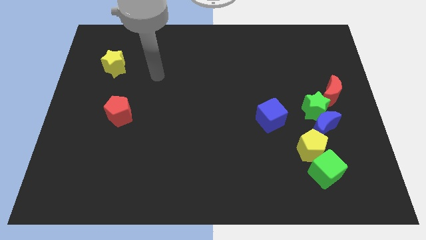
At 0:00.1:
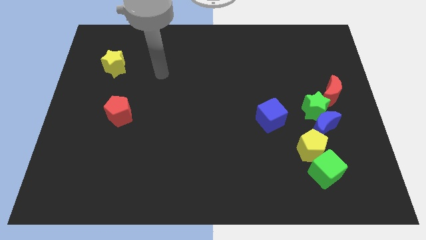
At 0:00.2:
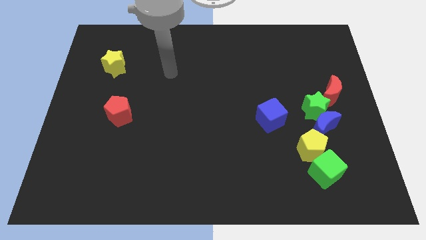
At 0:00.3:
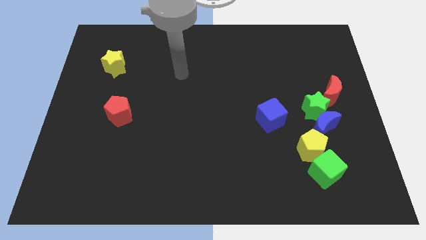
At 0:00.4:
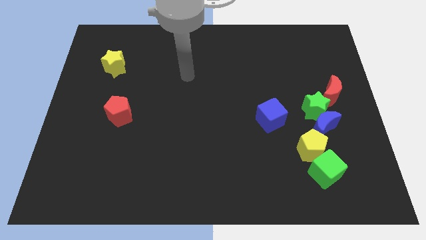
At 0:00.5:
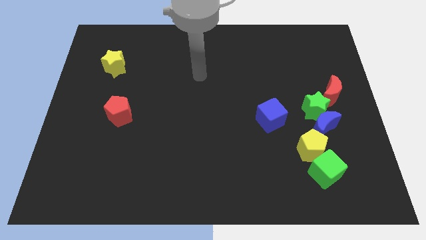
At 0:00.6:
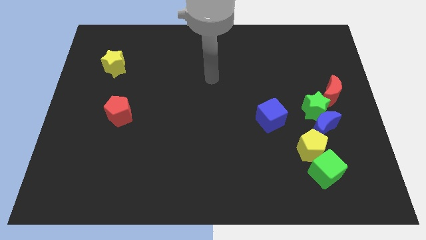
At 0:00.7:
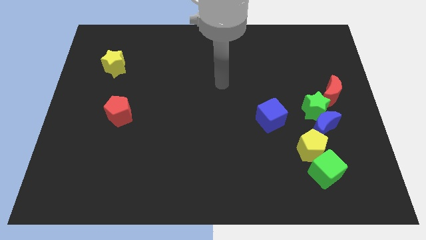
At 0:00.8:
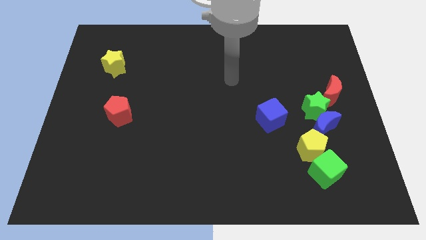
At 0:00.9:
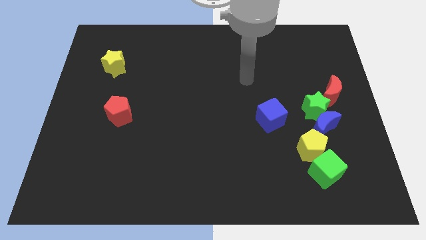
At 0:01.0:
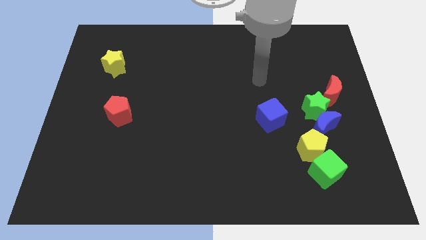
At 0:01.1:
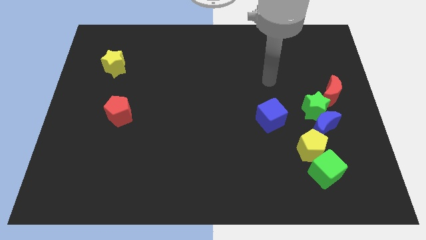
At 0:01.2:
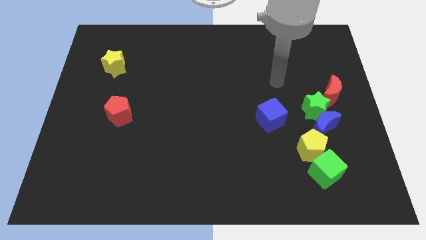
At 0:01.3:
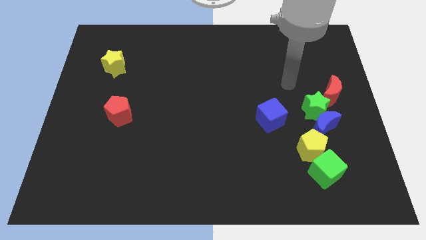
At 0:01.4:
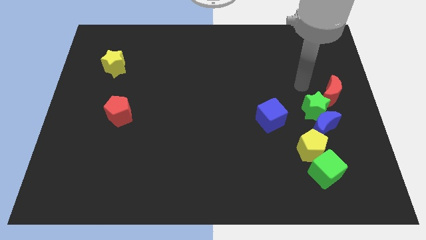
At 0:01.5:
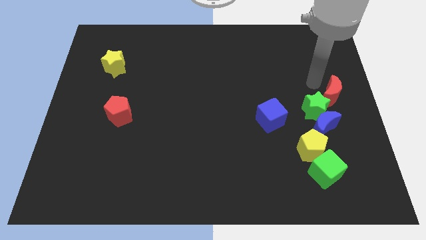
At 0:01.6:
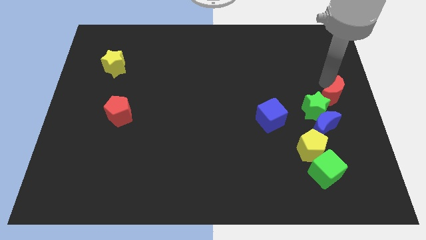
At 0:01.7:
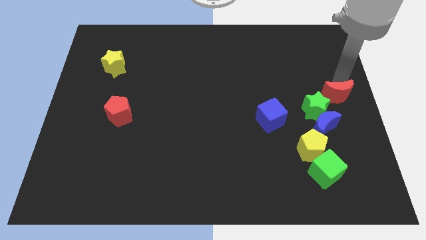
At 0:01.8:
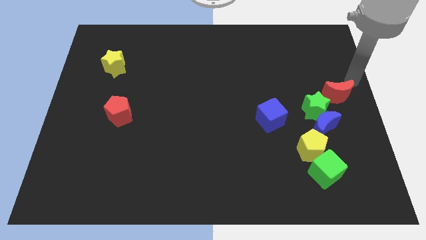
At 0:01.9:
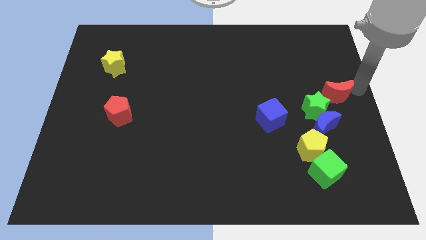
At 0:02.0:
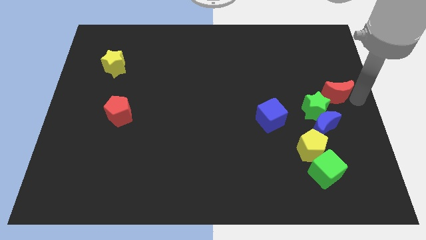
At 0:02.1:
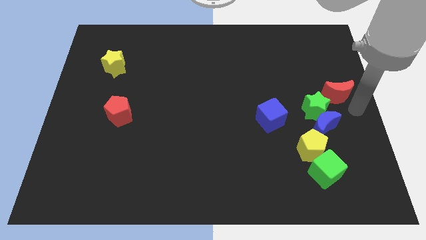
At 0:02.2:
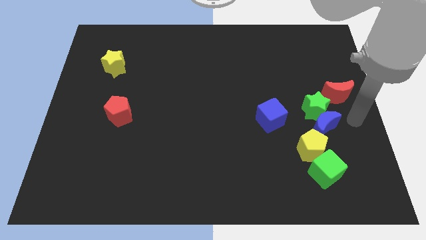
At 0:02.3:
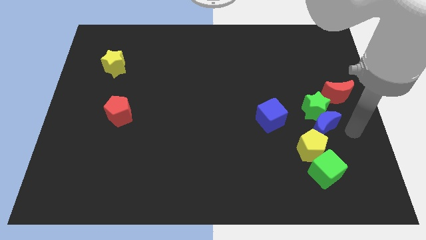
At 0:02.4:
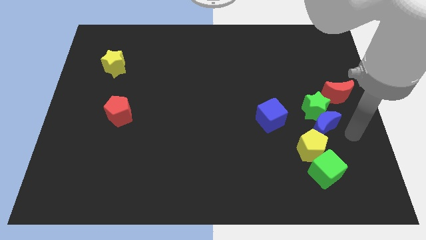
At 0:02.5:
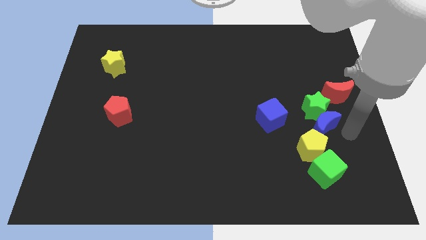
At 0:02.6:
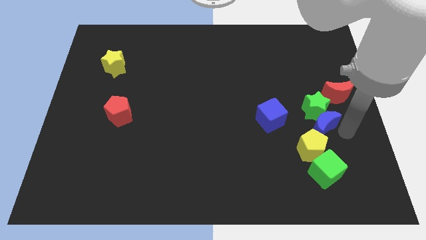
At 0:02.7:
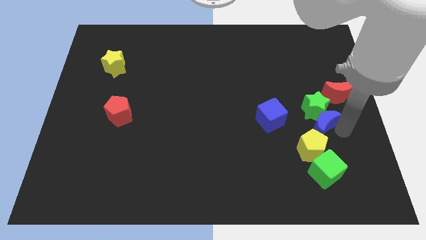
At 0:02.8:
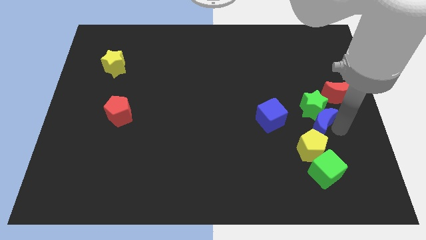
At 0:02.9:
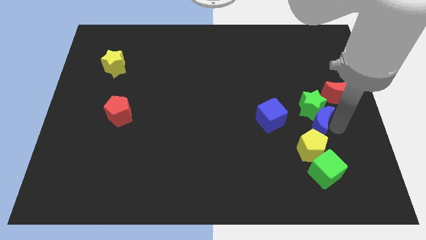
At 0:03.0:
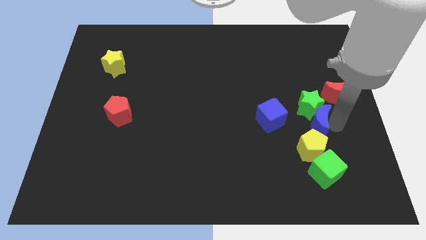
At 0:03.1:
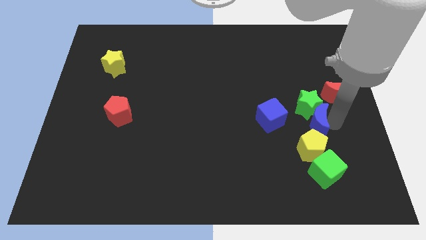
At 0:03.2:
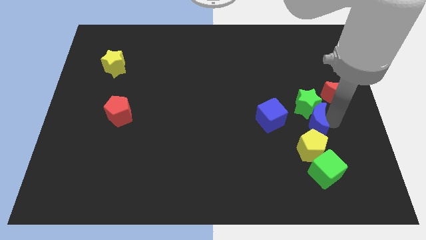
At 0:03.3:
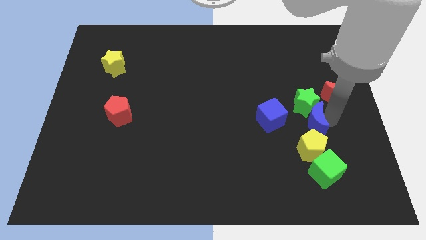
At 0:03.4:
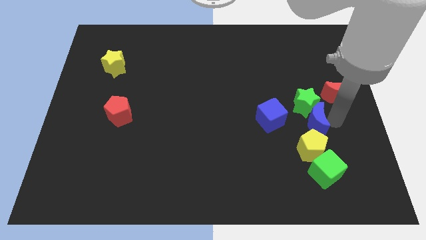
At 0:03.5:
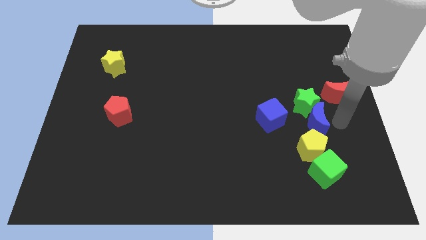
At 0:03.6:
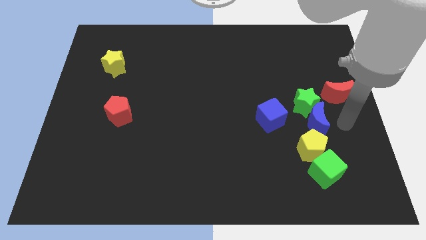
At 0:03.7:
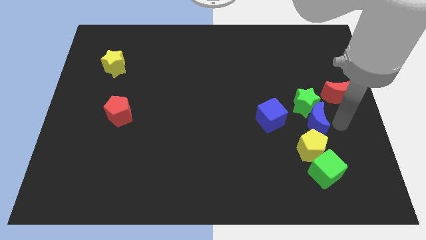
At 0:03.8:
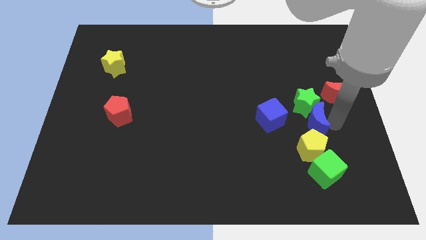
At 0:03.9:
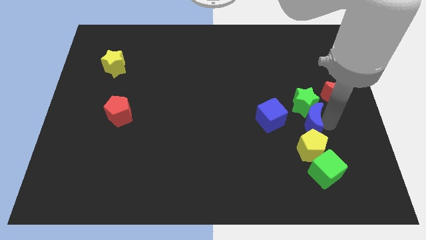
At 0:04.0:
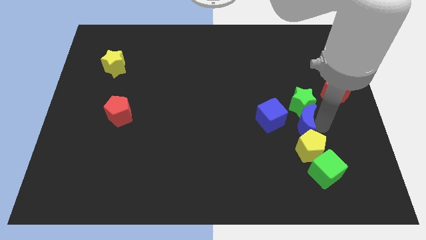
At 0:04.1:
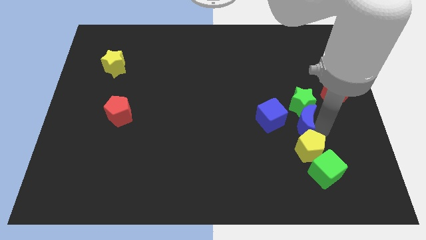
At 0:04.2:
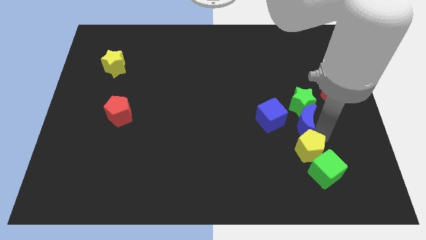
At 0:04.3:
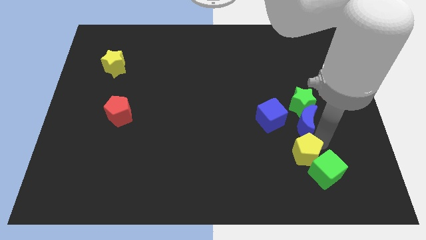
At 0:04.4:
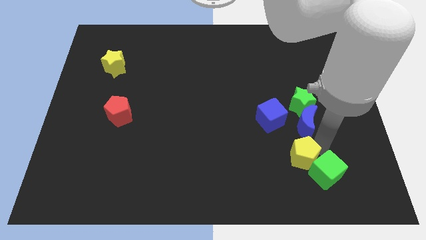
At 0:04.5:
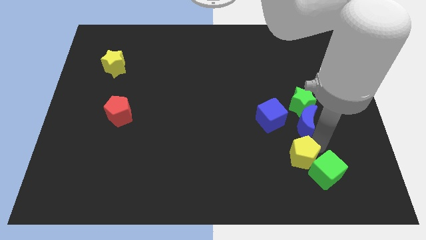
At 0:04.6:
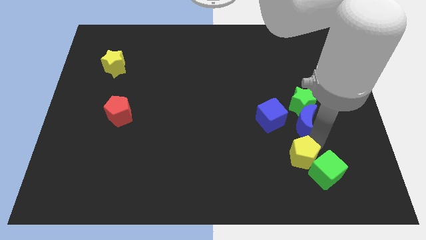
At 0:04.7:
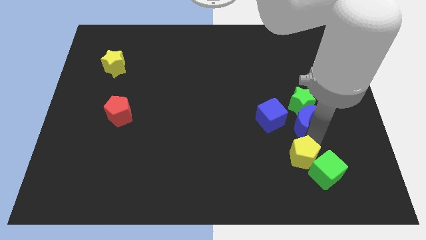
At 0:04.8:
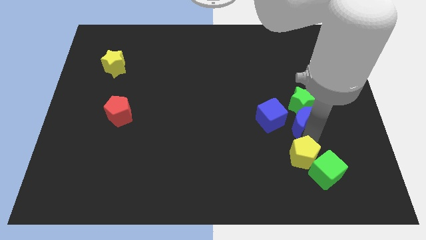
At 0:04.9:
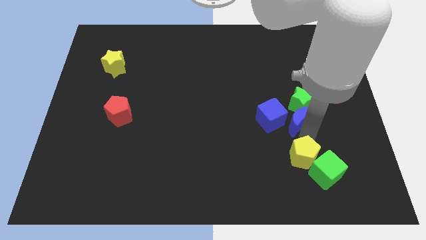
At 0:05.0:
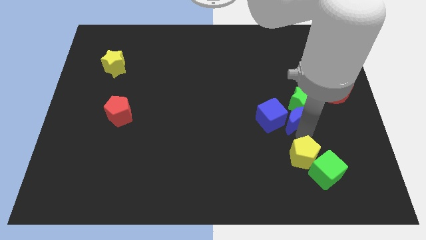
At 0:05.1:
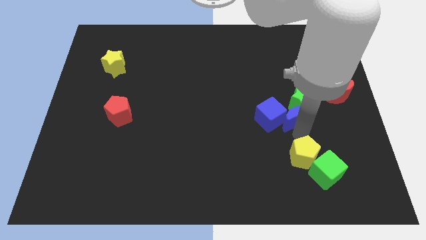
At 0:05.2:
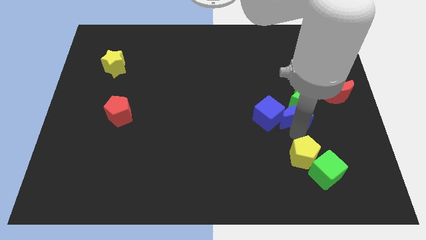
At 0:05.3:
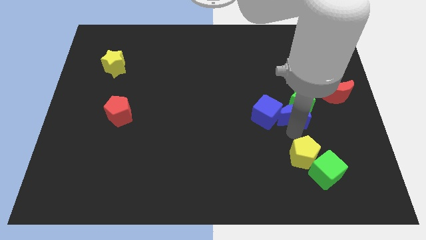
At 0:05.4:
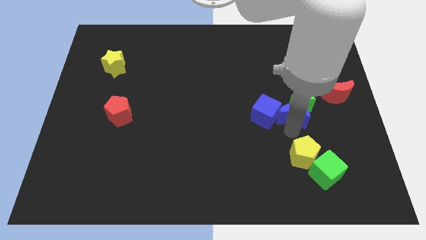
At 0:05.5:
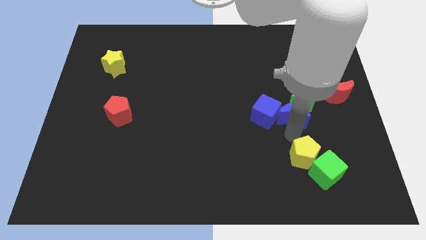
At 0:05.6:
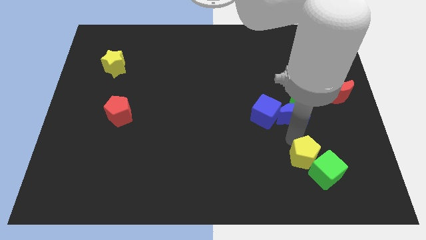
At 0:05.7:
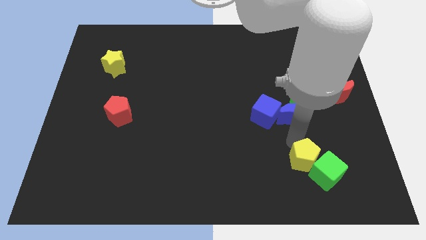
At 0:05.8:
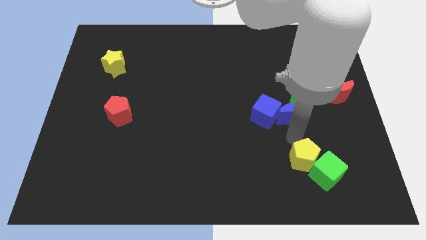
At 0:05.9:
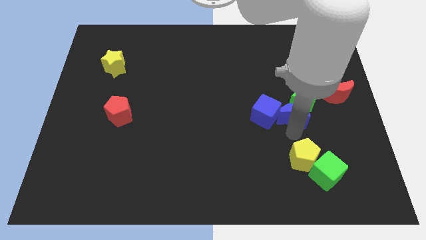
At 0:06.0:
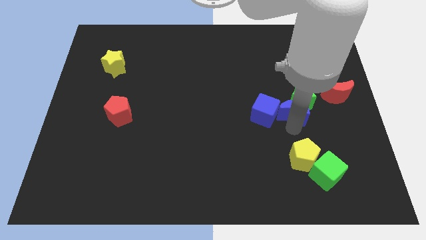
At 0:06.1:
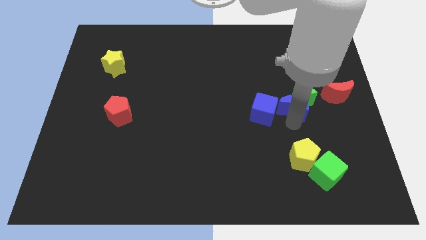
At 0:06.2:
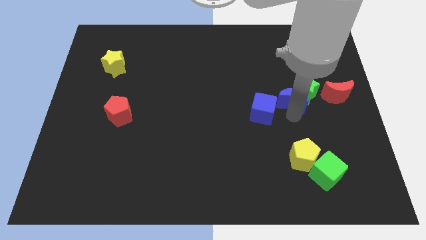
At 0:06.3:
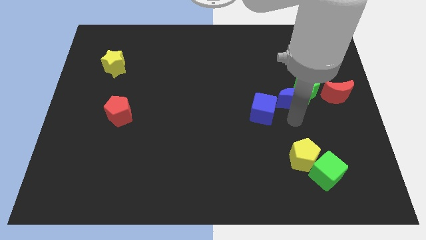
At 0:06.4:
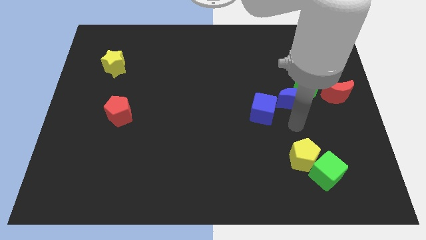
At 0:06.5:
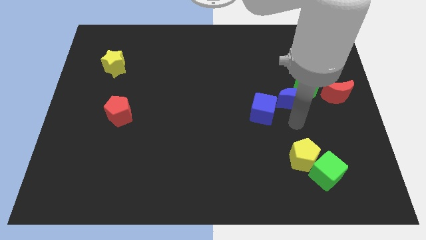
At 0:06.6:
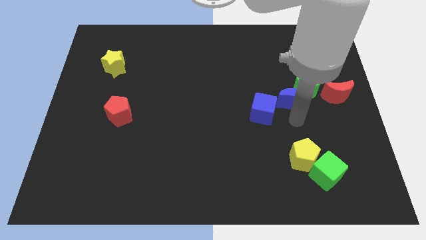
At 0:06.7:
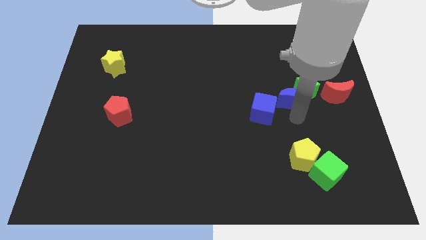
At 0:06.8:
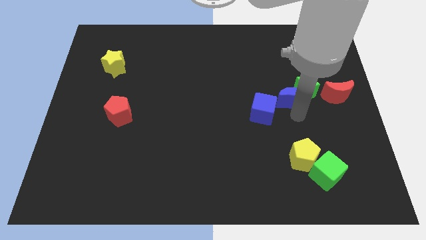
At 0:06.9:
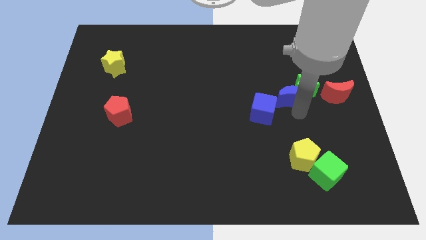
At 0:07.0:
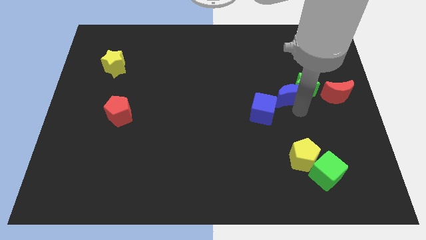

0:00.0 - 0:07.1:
move the blue moon slightly up

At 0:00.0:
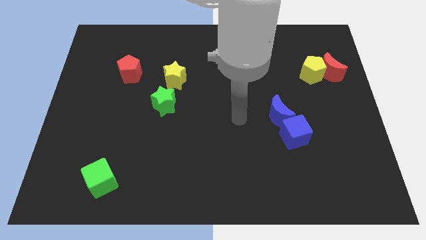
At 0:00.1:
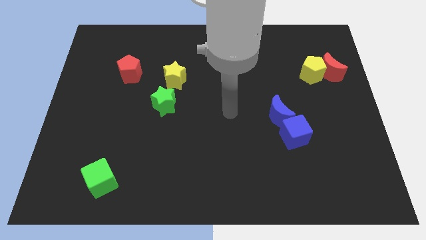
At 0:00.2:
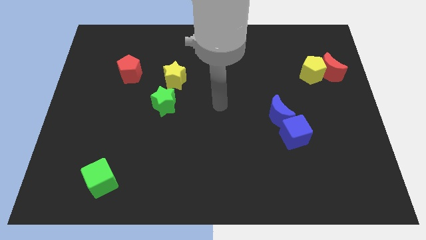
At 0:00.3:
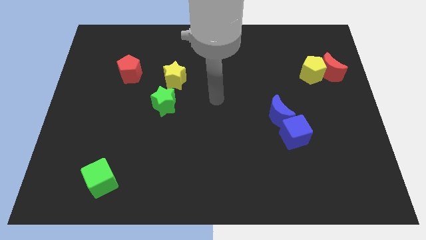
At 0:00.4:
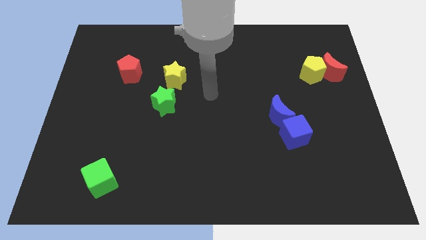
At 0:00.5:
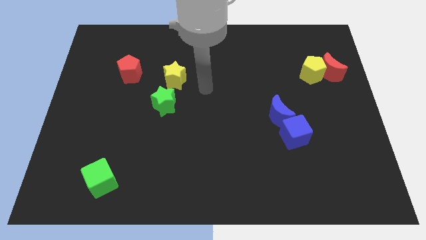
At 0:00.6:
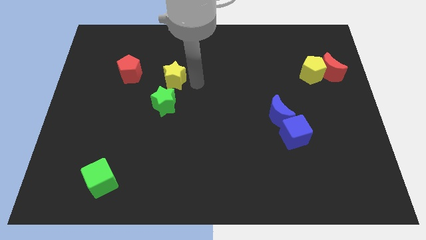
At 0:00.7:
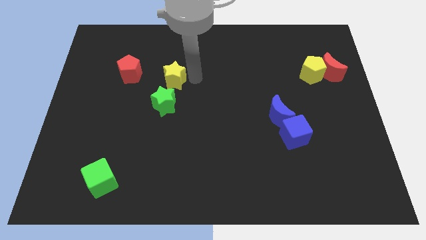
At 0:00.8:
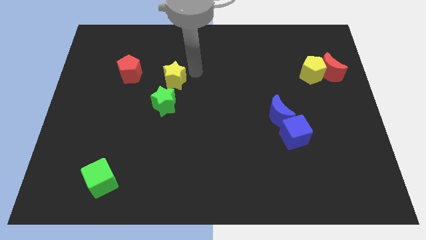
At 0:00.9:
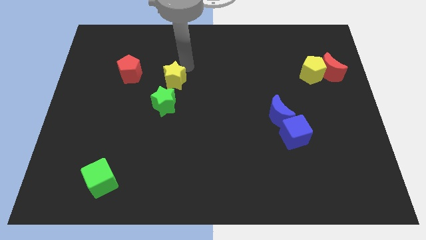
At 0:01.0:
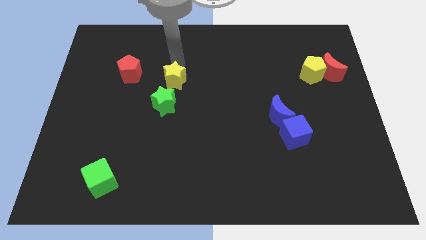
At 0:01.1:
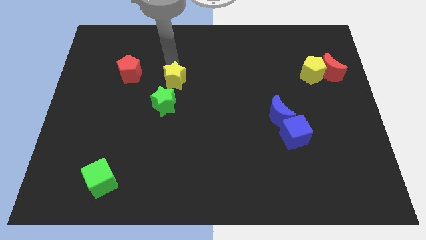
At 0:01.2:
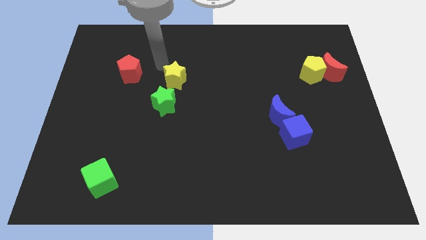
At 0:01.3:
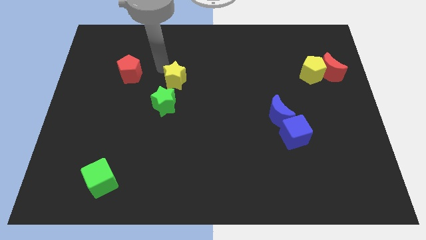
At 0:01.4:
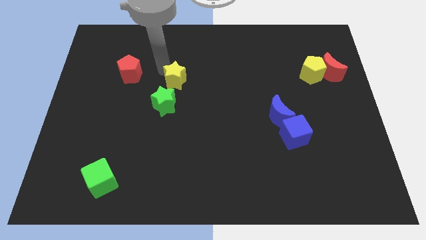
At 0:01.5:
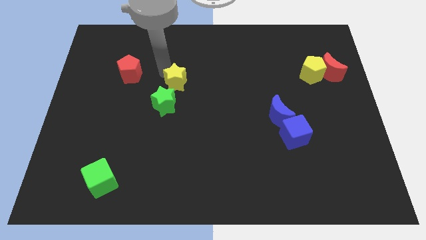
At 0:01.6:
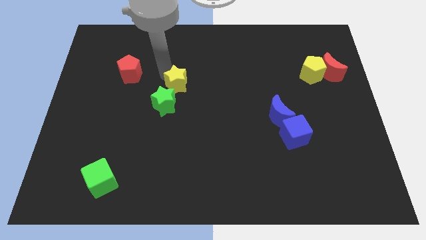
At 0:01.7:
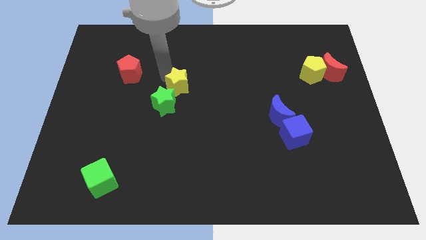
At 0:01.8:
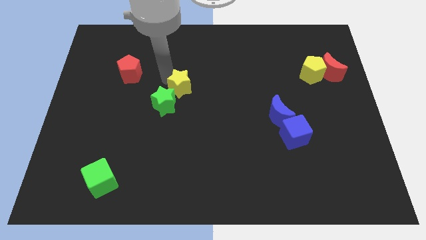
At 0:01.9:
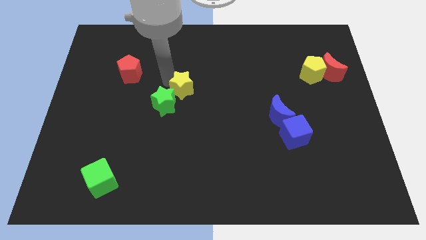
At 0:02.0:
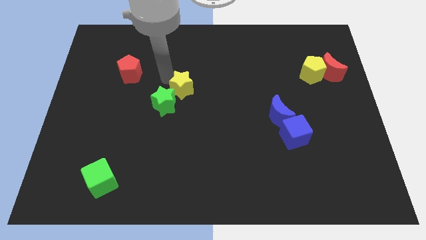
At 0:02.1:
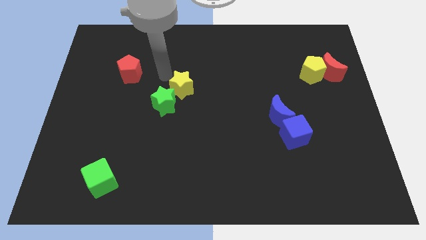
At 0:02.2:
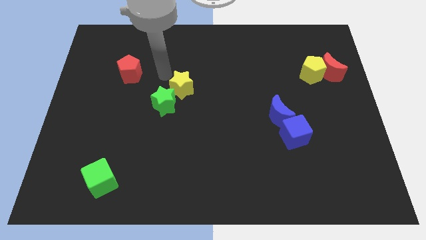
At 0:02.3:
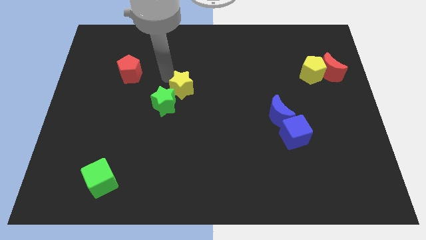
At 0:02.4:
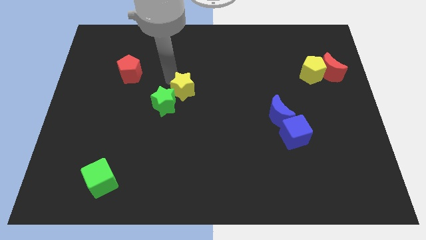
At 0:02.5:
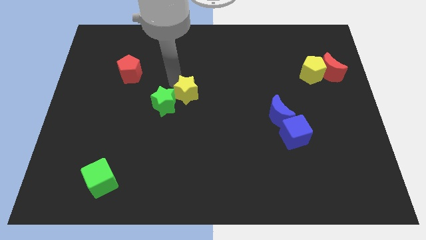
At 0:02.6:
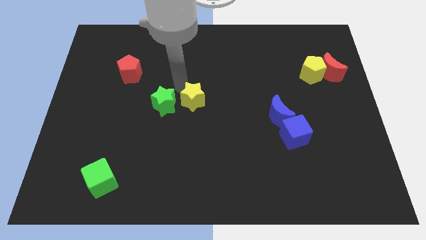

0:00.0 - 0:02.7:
move the yellow star down and right somewhat
